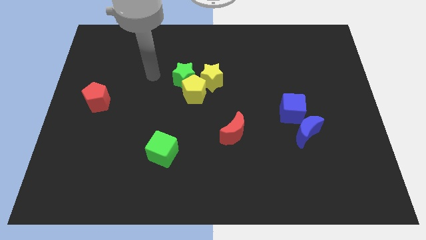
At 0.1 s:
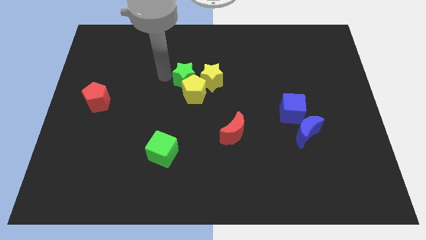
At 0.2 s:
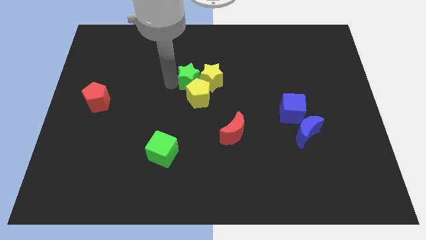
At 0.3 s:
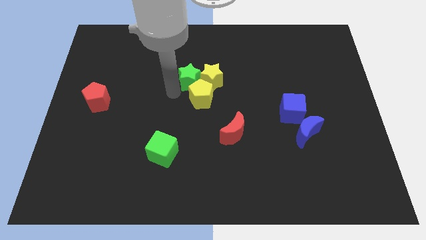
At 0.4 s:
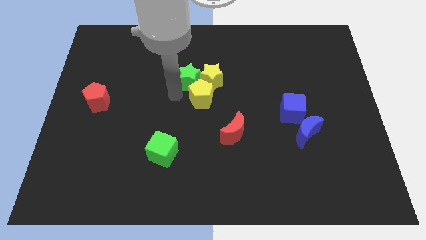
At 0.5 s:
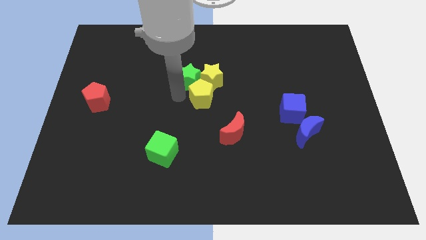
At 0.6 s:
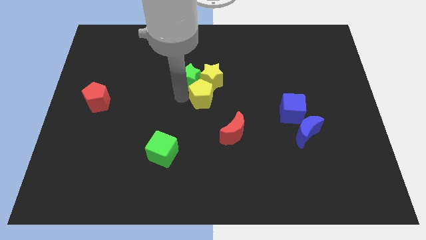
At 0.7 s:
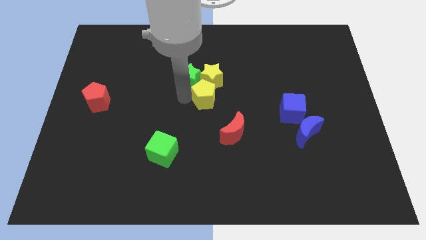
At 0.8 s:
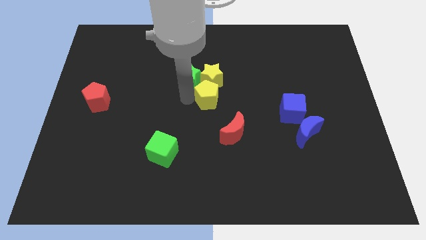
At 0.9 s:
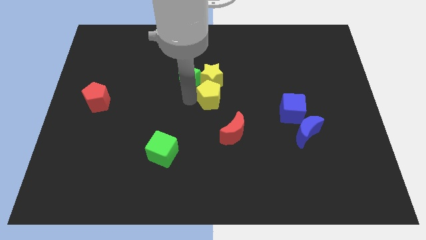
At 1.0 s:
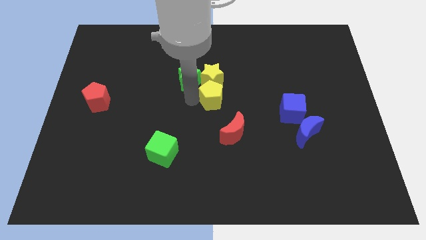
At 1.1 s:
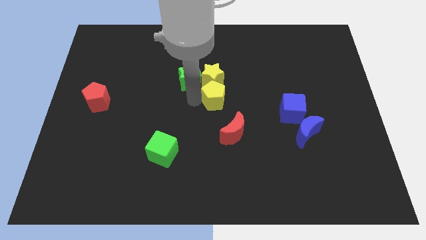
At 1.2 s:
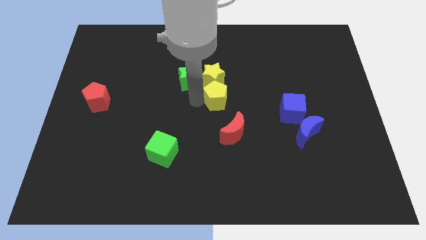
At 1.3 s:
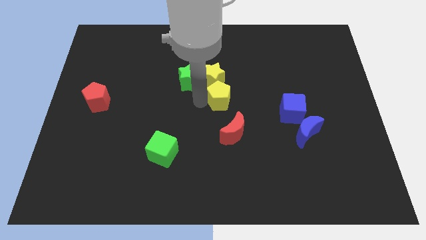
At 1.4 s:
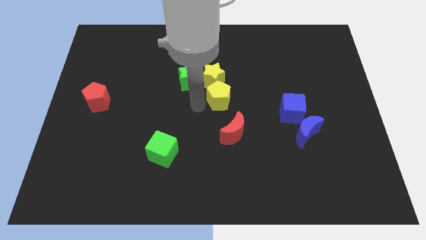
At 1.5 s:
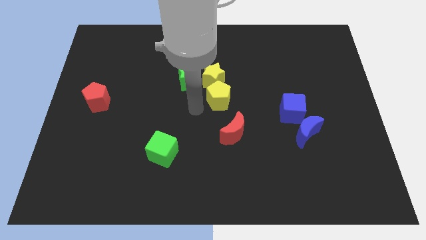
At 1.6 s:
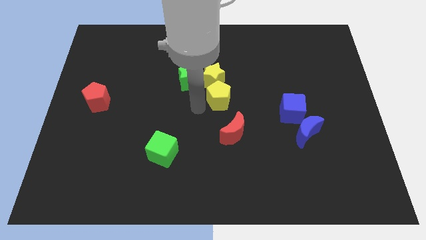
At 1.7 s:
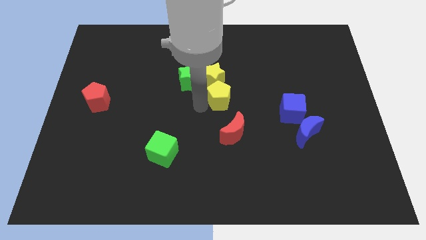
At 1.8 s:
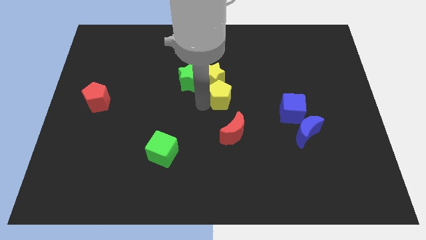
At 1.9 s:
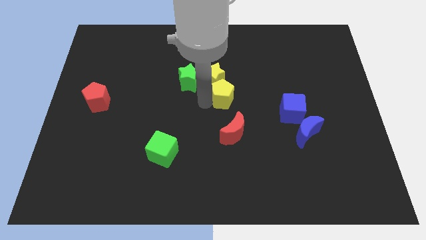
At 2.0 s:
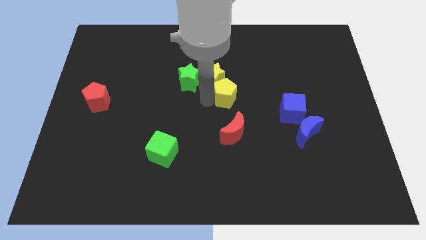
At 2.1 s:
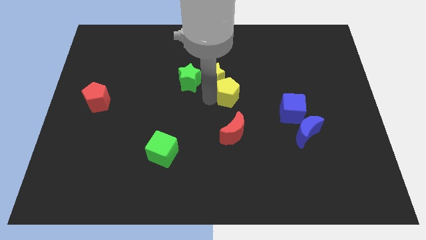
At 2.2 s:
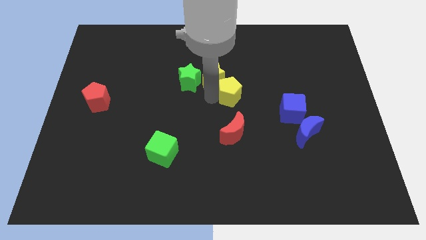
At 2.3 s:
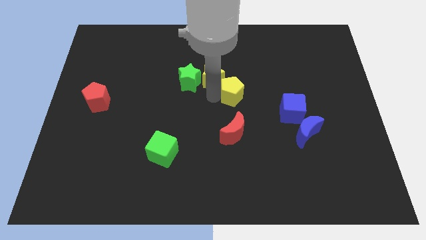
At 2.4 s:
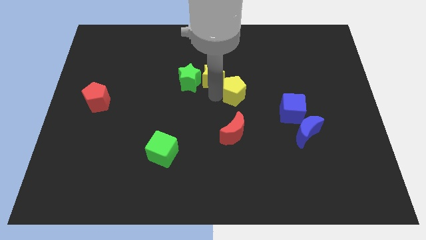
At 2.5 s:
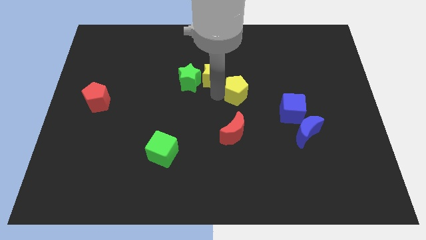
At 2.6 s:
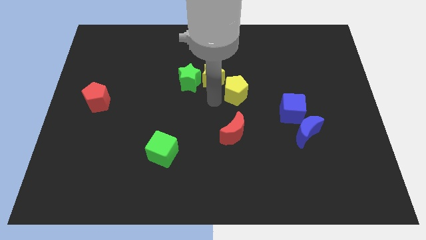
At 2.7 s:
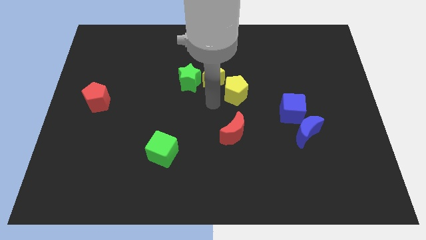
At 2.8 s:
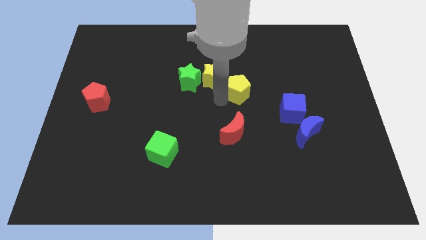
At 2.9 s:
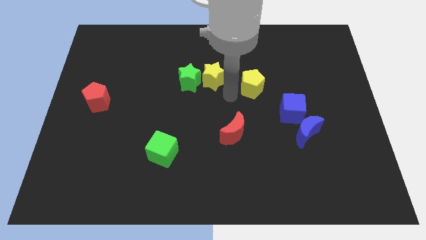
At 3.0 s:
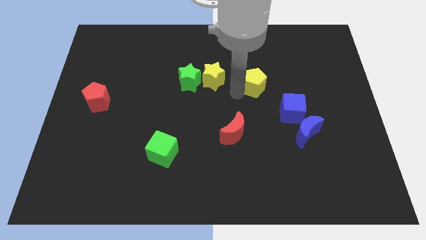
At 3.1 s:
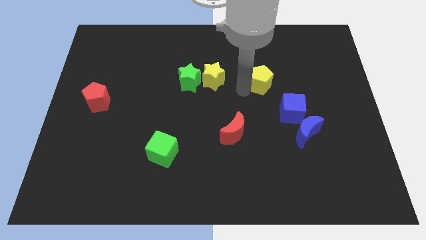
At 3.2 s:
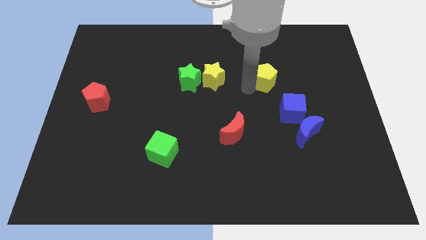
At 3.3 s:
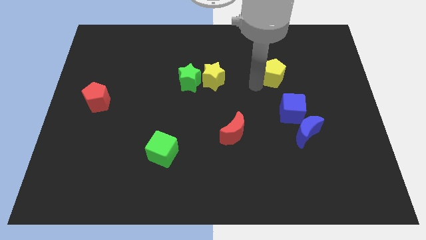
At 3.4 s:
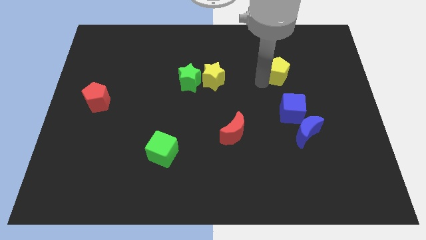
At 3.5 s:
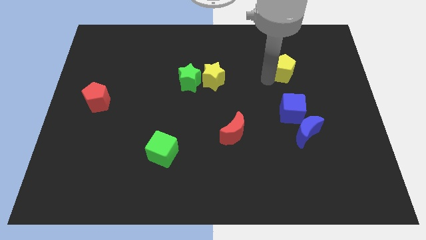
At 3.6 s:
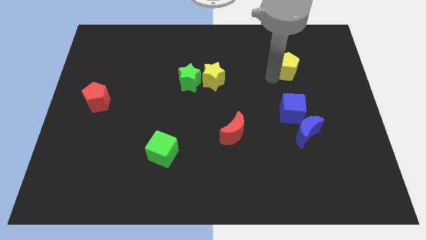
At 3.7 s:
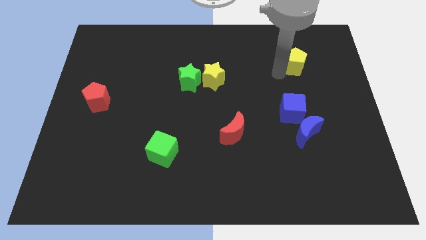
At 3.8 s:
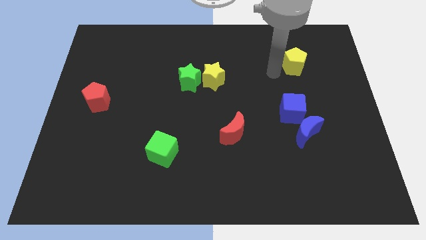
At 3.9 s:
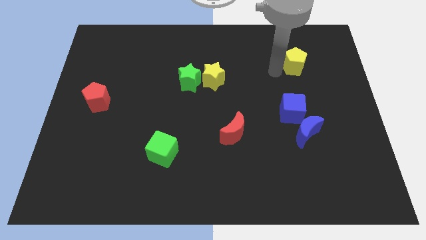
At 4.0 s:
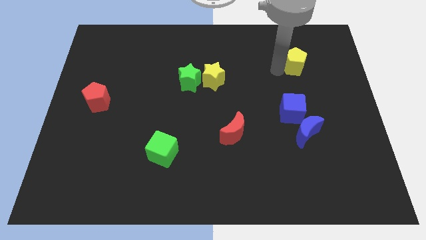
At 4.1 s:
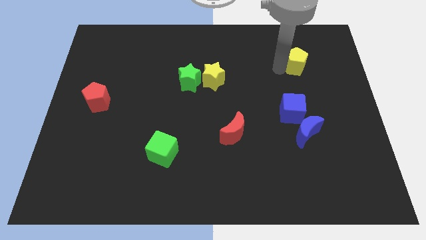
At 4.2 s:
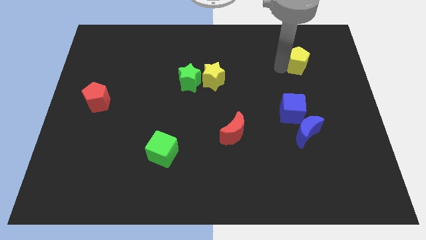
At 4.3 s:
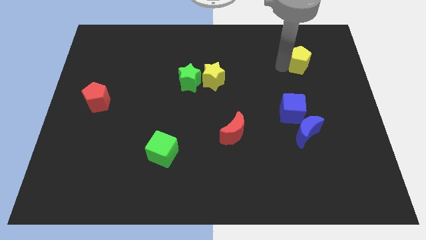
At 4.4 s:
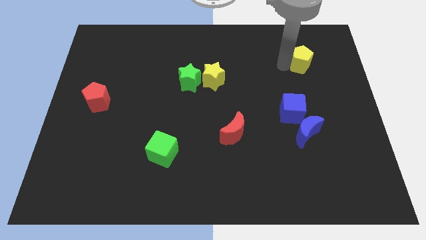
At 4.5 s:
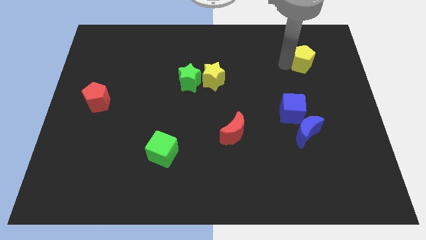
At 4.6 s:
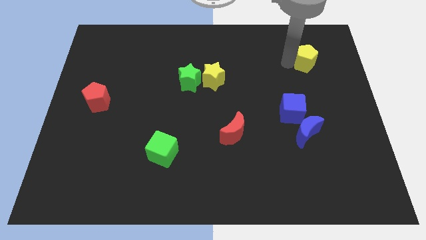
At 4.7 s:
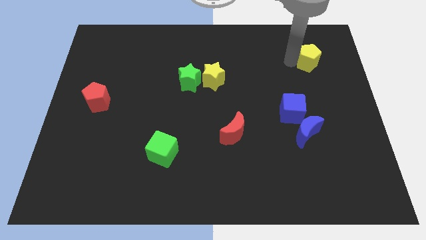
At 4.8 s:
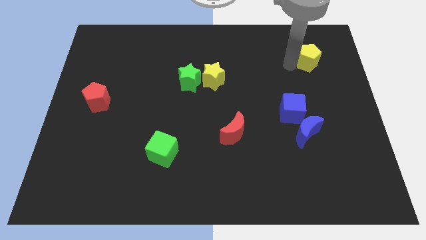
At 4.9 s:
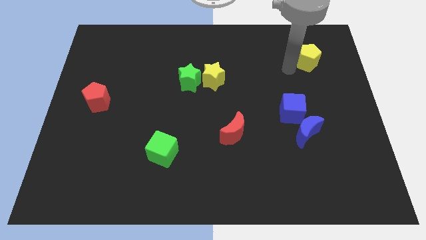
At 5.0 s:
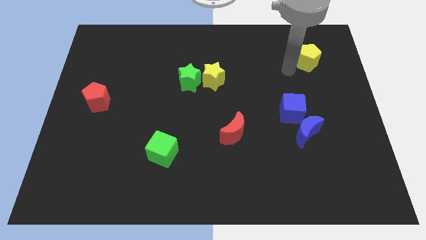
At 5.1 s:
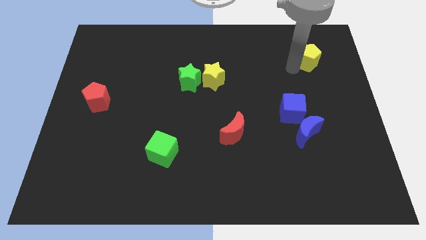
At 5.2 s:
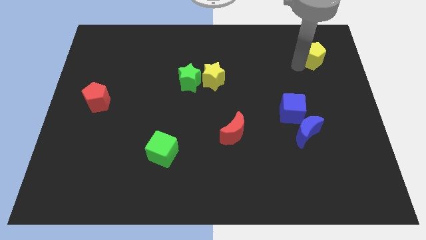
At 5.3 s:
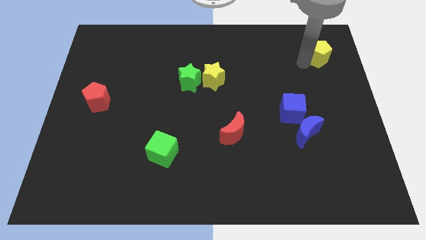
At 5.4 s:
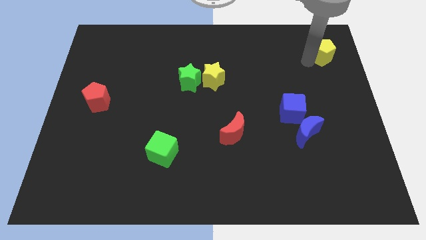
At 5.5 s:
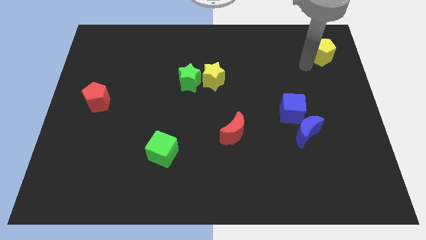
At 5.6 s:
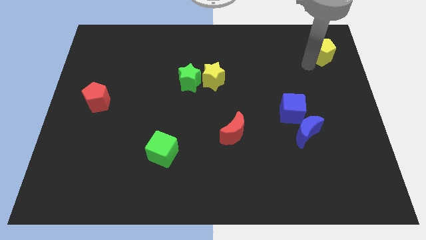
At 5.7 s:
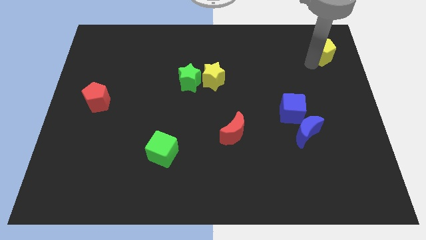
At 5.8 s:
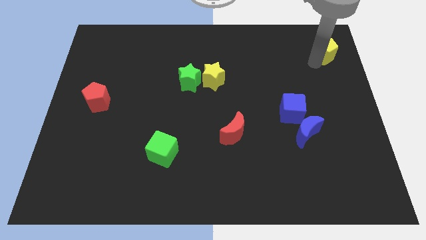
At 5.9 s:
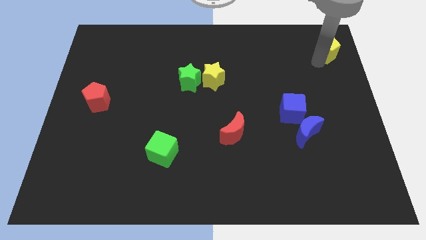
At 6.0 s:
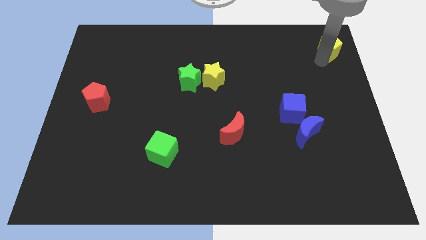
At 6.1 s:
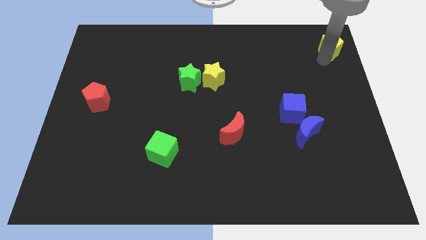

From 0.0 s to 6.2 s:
slide the yellow pentagon to the top right corner
